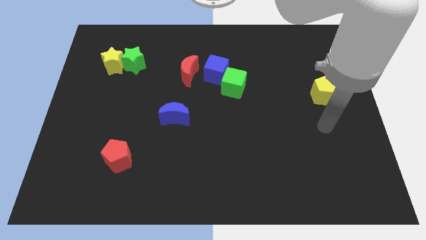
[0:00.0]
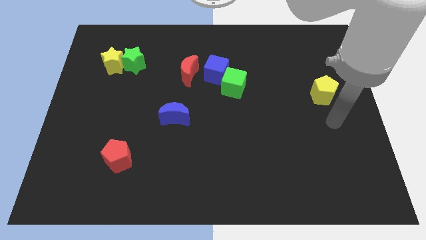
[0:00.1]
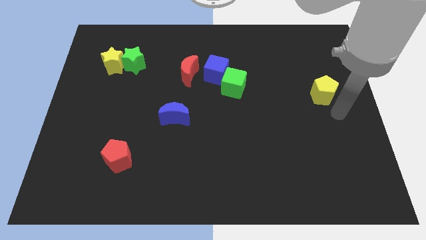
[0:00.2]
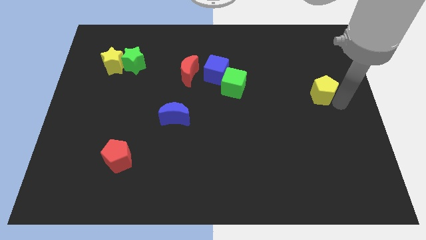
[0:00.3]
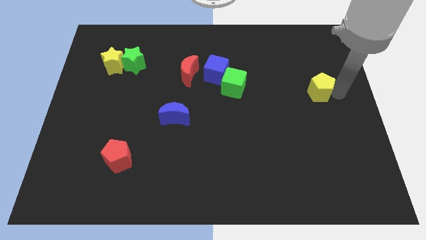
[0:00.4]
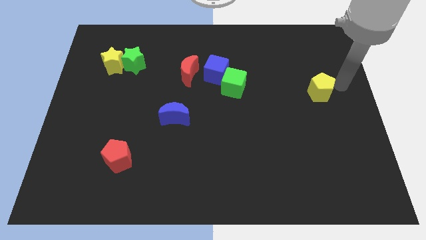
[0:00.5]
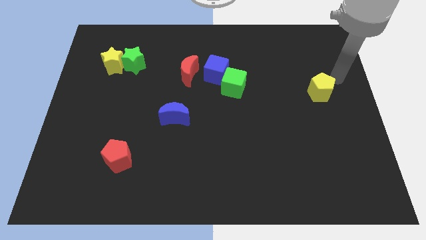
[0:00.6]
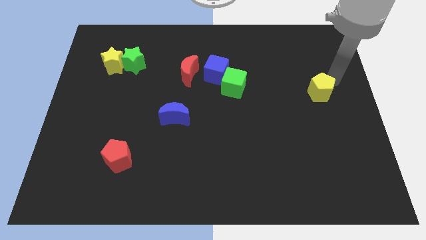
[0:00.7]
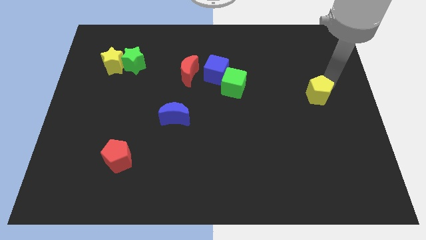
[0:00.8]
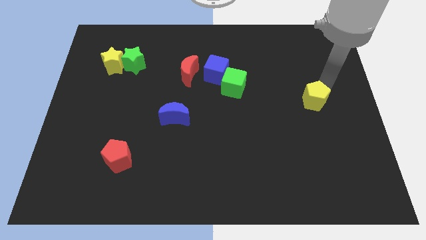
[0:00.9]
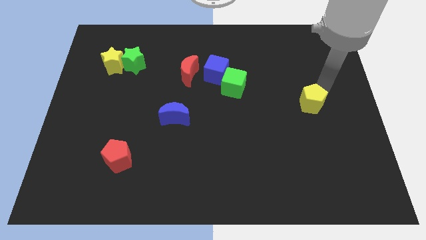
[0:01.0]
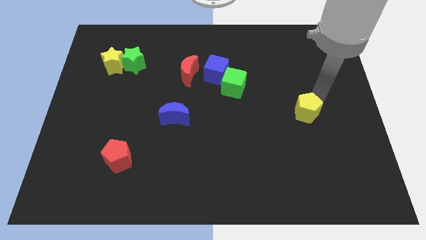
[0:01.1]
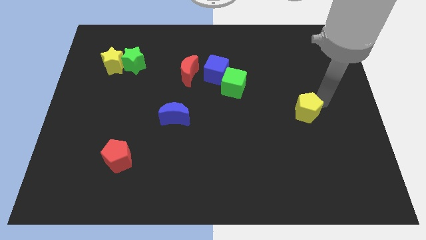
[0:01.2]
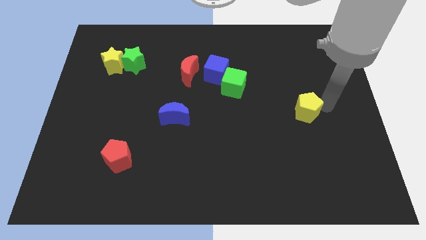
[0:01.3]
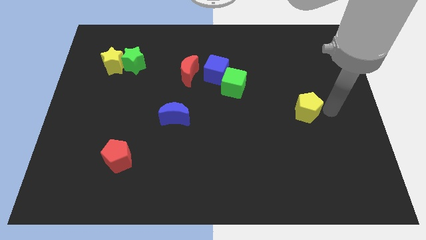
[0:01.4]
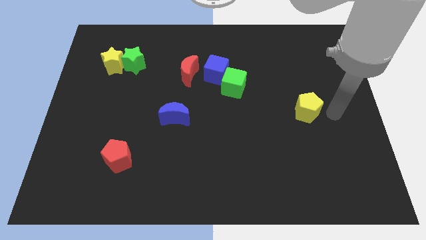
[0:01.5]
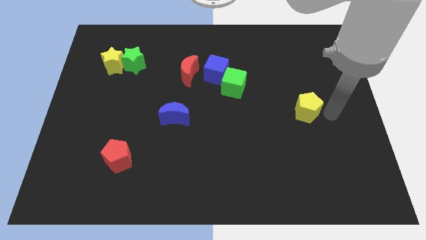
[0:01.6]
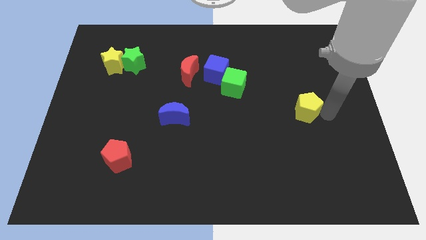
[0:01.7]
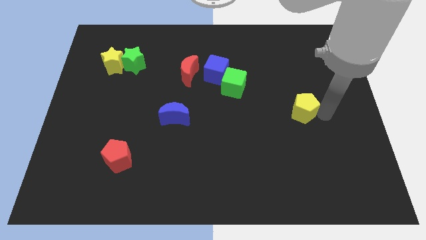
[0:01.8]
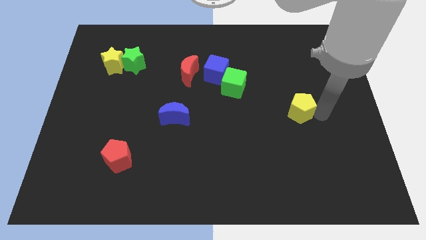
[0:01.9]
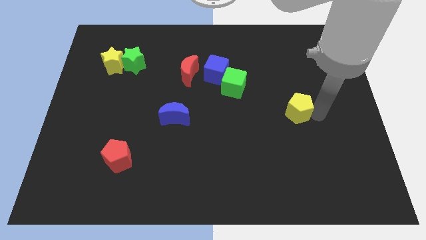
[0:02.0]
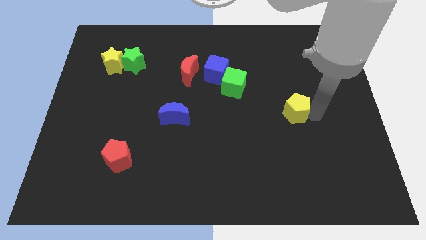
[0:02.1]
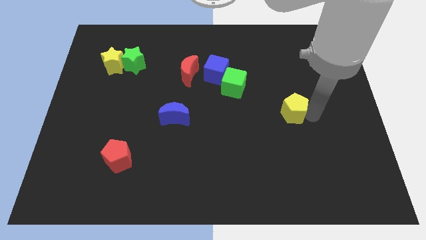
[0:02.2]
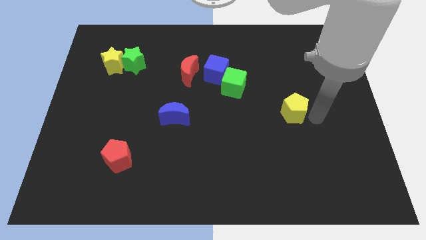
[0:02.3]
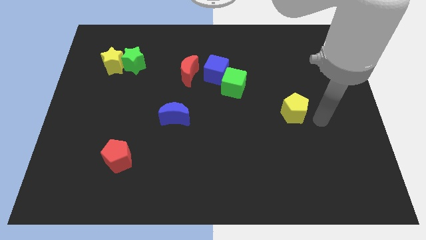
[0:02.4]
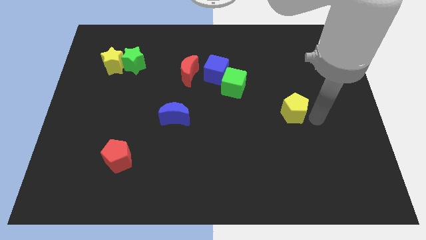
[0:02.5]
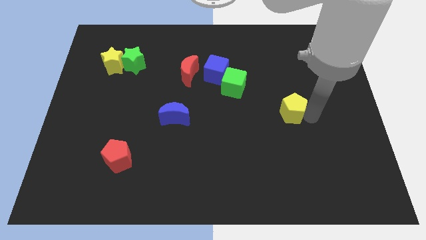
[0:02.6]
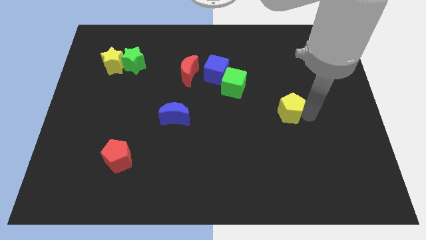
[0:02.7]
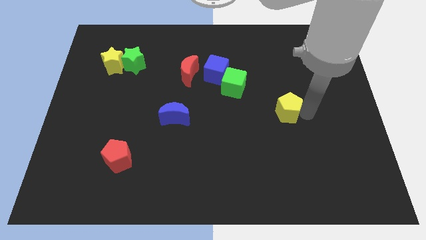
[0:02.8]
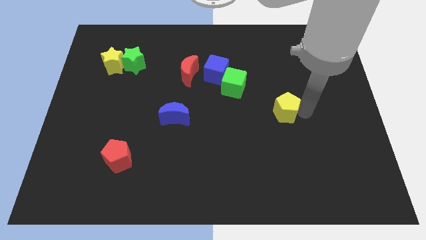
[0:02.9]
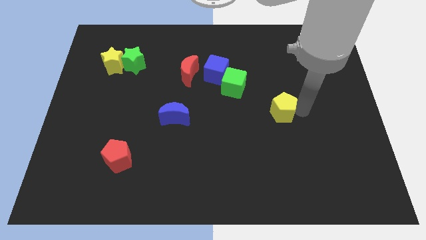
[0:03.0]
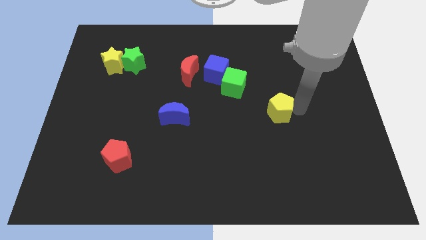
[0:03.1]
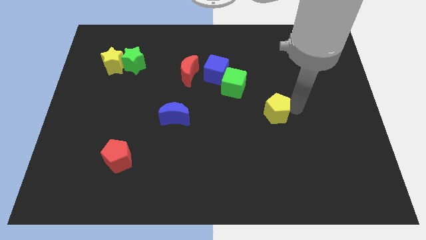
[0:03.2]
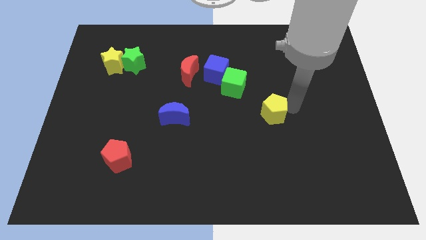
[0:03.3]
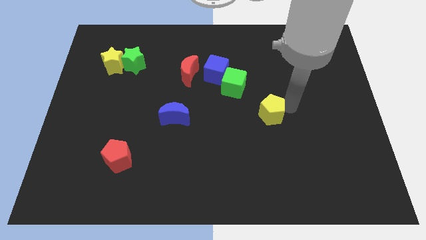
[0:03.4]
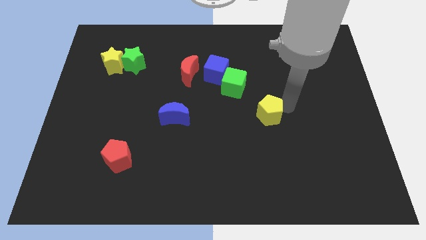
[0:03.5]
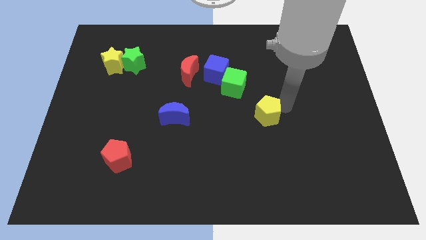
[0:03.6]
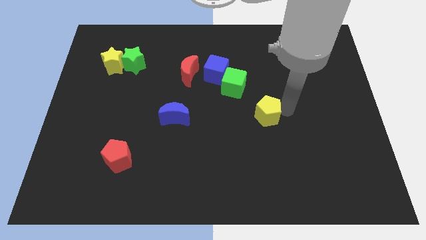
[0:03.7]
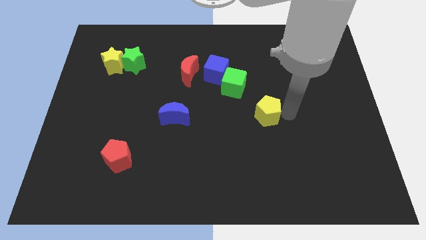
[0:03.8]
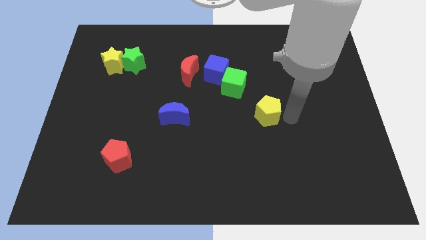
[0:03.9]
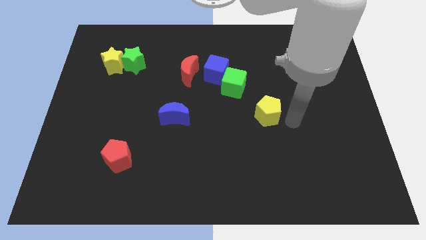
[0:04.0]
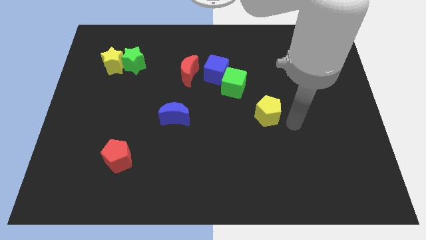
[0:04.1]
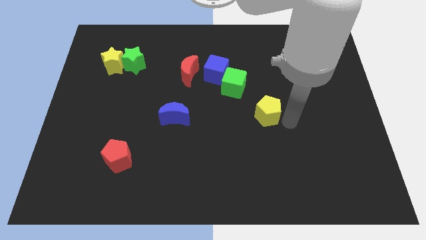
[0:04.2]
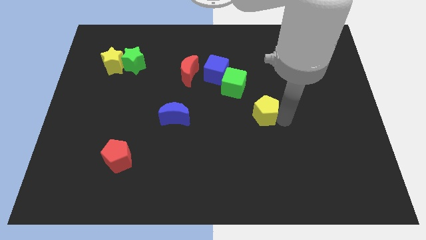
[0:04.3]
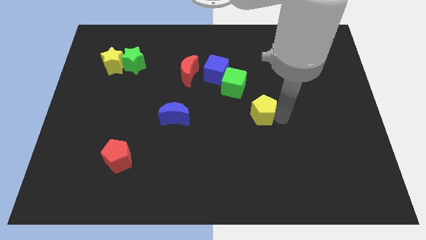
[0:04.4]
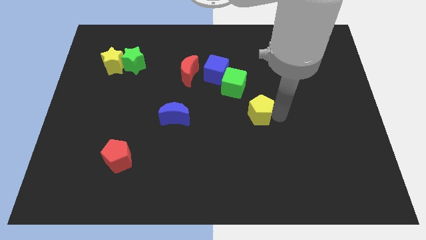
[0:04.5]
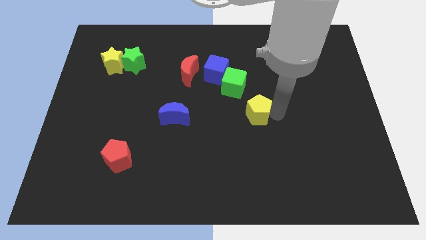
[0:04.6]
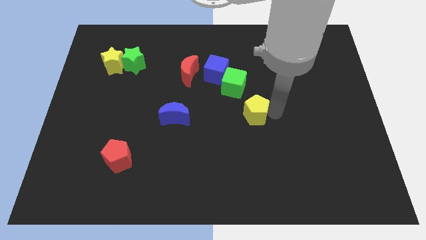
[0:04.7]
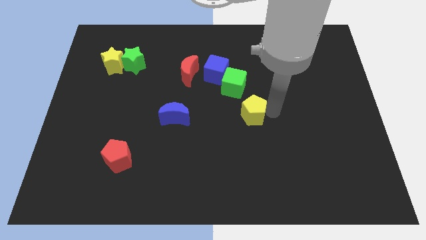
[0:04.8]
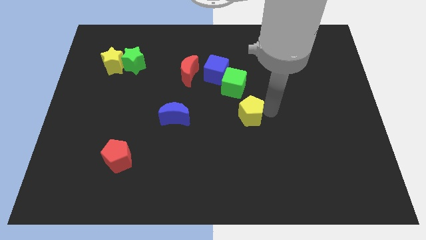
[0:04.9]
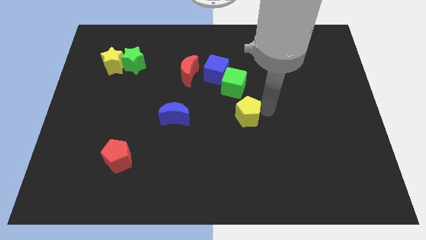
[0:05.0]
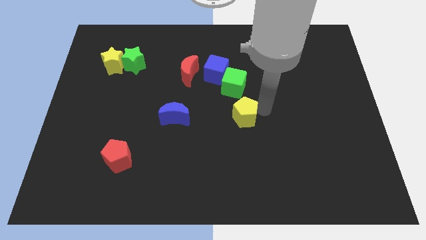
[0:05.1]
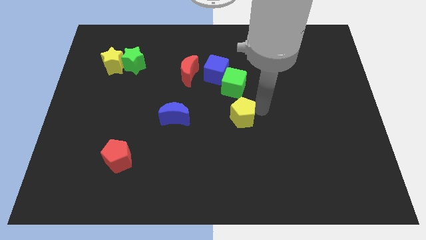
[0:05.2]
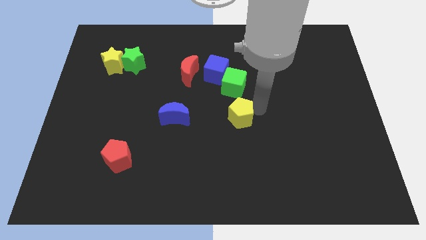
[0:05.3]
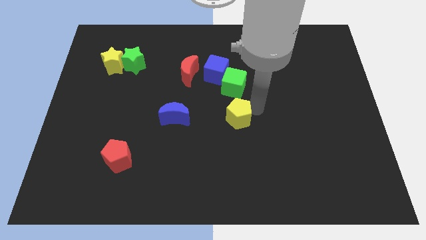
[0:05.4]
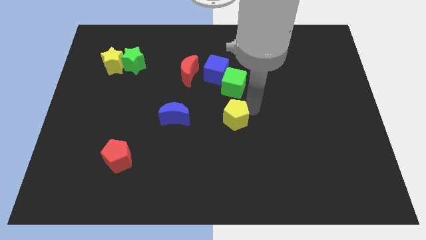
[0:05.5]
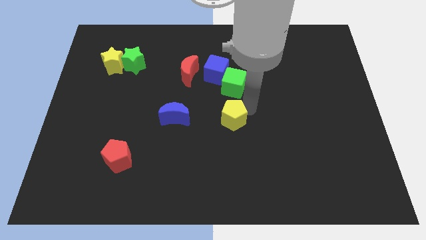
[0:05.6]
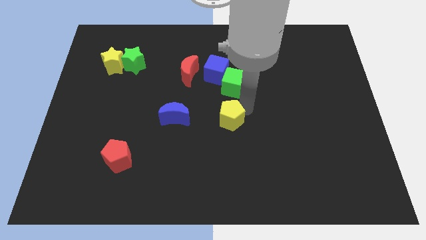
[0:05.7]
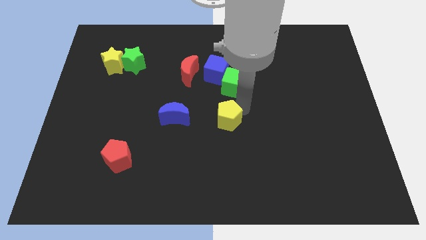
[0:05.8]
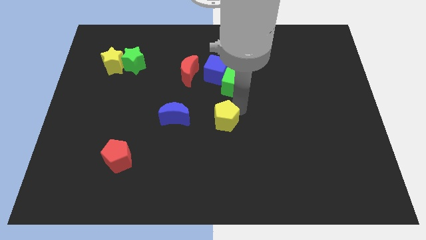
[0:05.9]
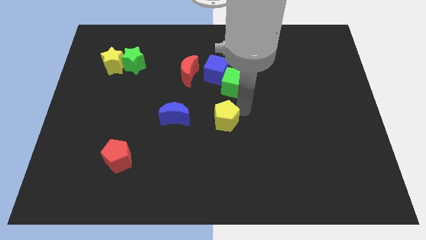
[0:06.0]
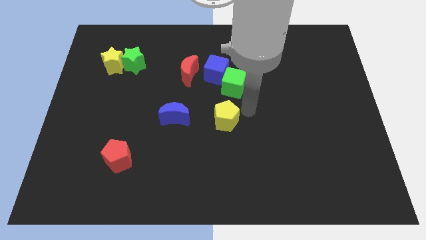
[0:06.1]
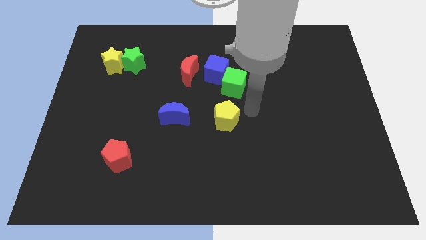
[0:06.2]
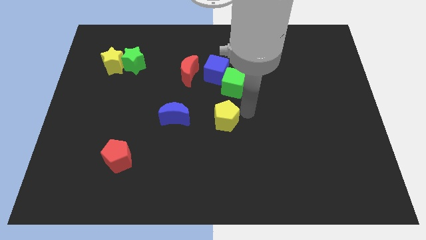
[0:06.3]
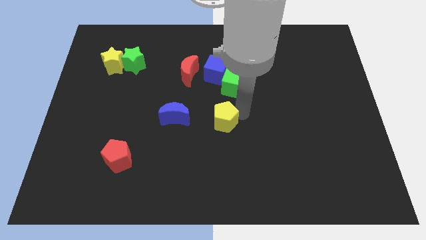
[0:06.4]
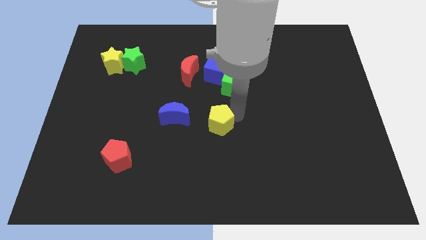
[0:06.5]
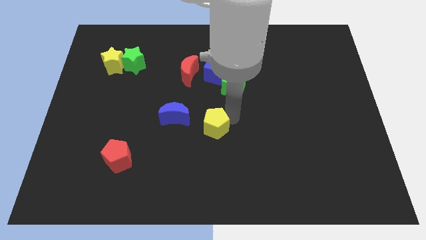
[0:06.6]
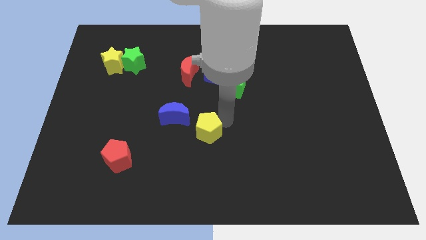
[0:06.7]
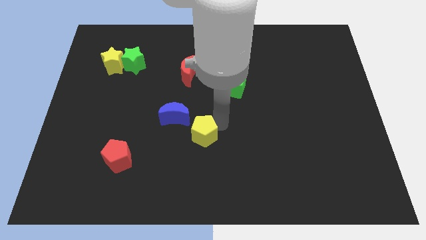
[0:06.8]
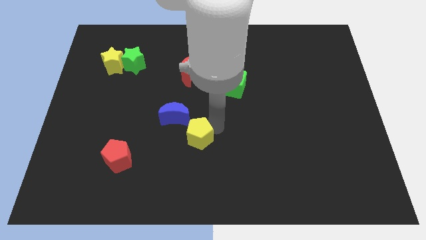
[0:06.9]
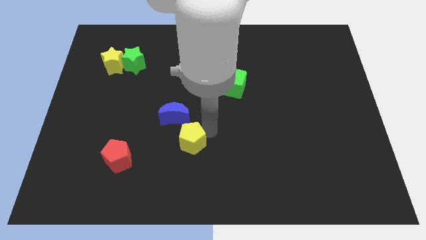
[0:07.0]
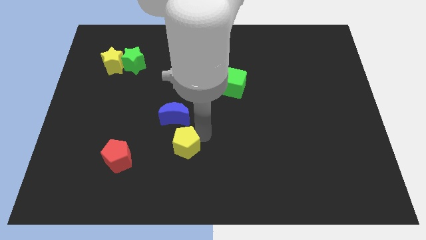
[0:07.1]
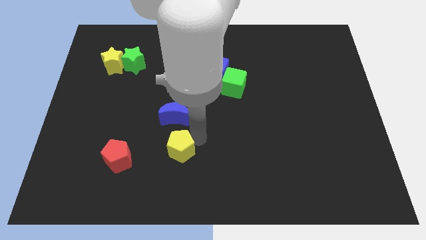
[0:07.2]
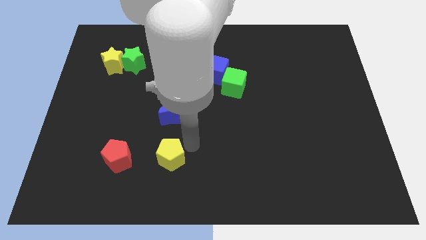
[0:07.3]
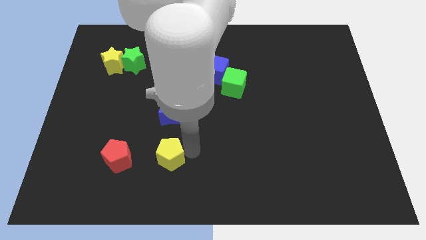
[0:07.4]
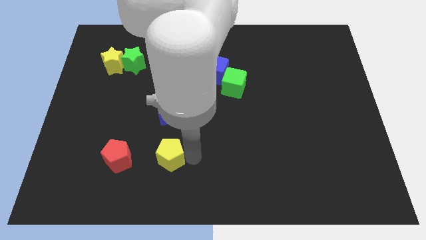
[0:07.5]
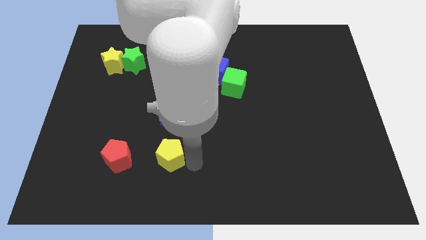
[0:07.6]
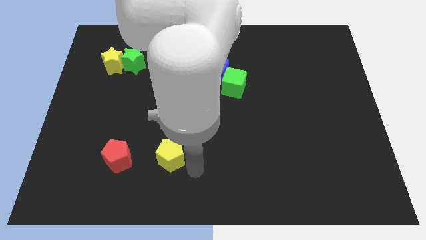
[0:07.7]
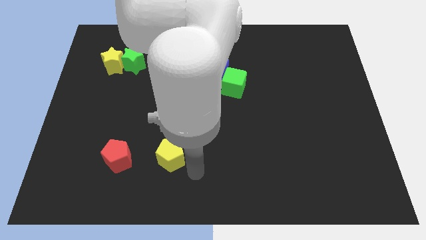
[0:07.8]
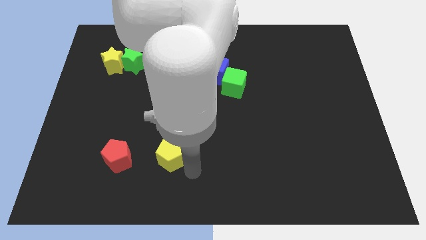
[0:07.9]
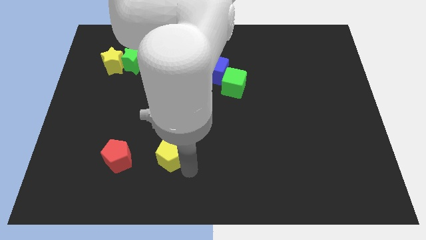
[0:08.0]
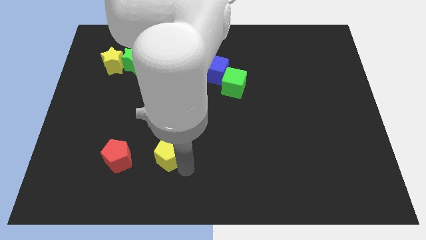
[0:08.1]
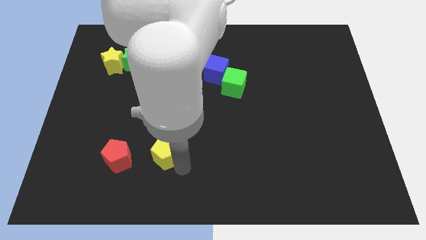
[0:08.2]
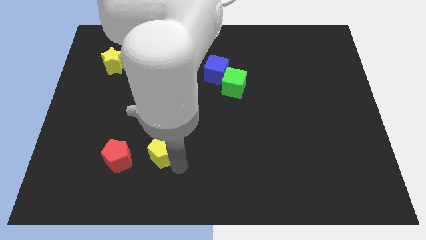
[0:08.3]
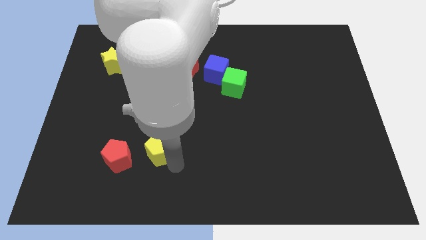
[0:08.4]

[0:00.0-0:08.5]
push the yellow pentagon to the top right of the red pentagon
